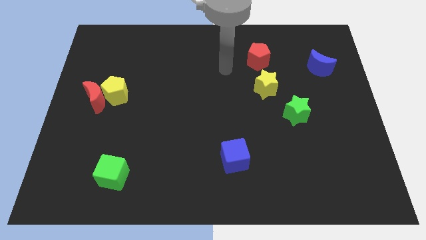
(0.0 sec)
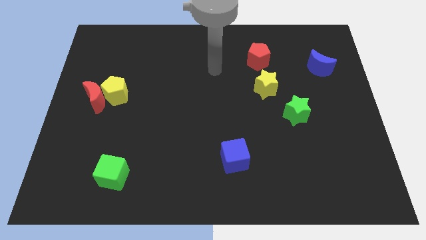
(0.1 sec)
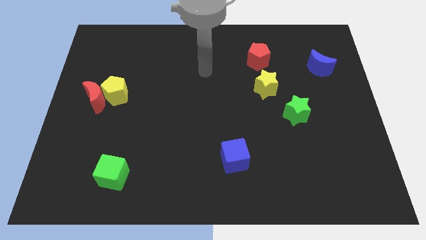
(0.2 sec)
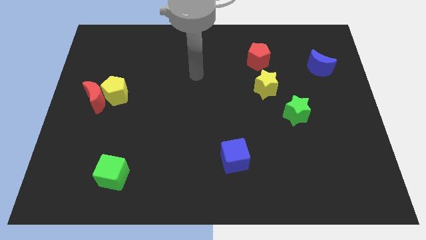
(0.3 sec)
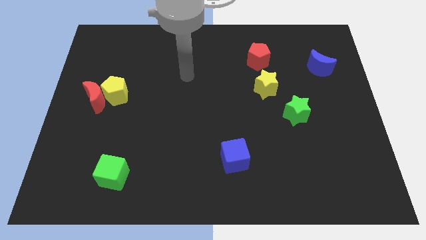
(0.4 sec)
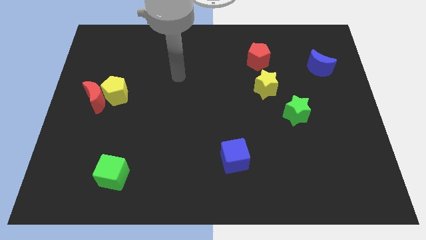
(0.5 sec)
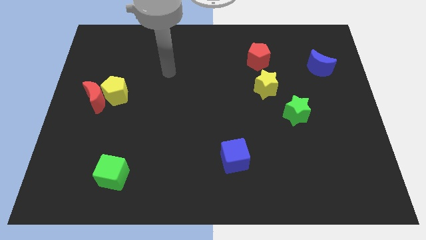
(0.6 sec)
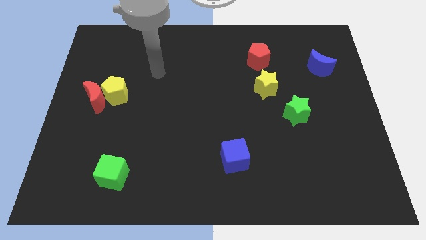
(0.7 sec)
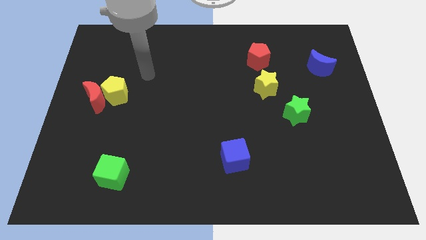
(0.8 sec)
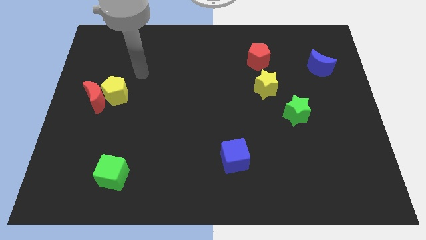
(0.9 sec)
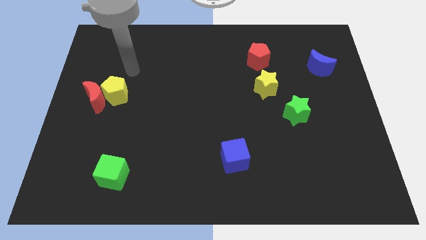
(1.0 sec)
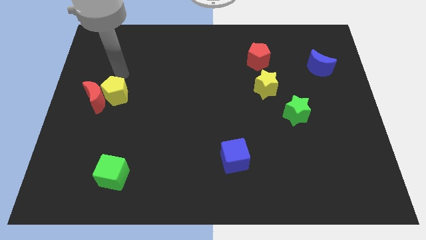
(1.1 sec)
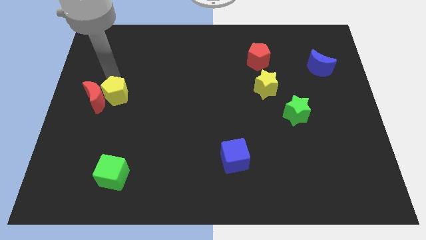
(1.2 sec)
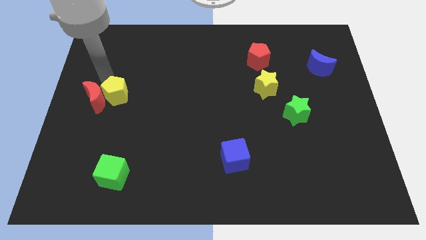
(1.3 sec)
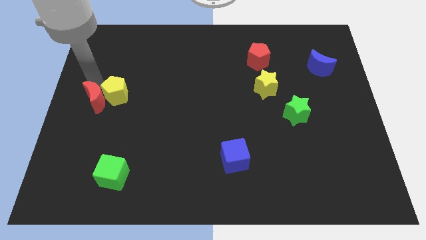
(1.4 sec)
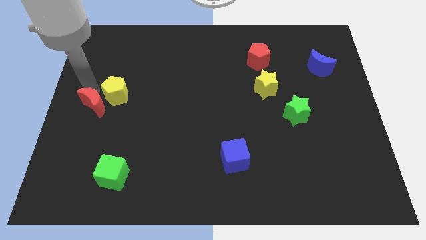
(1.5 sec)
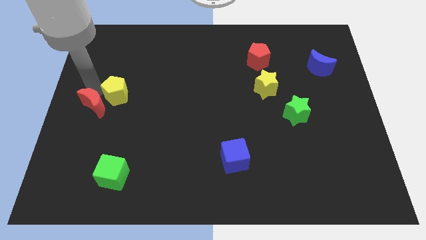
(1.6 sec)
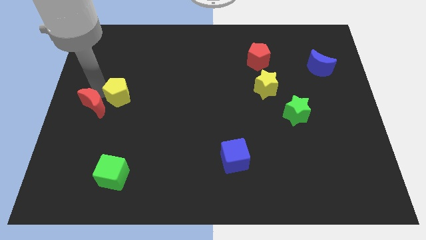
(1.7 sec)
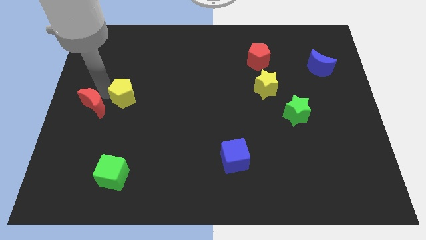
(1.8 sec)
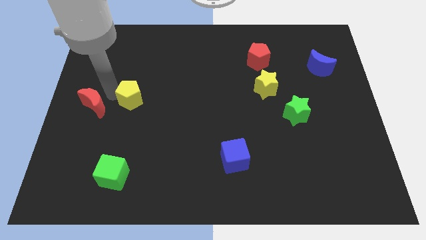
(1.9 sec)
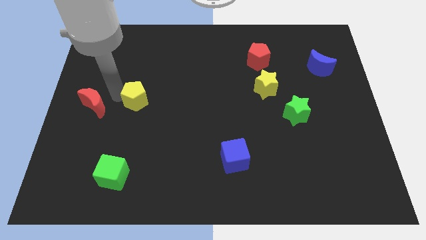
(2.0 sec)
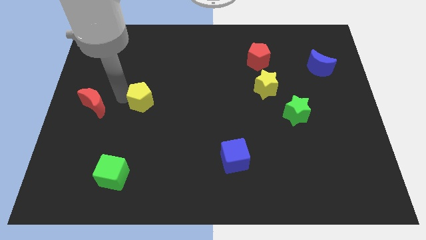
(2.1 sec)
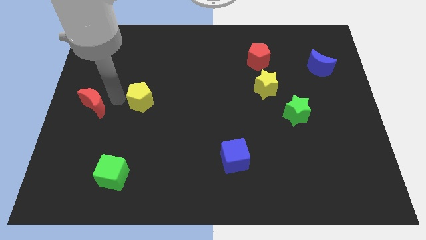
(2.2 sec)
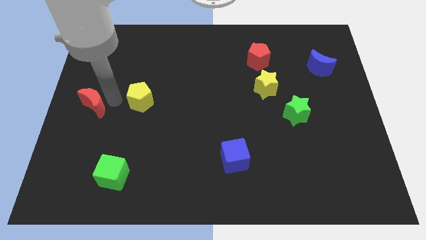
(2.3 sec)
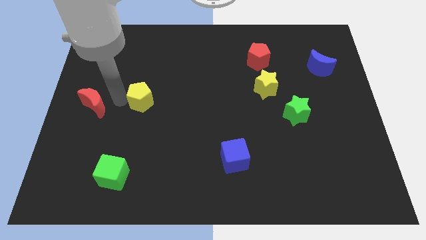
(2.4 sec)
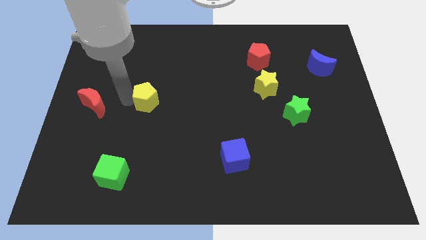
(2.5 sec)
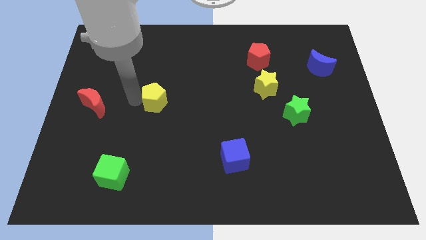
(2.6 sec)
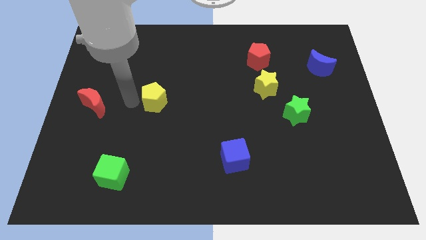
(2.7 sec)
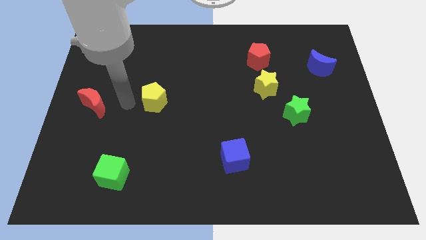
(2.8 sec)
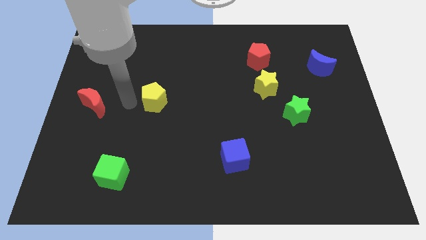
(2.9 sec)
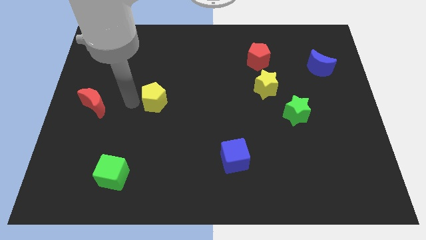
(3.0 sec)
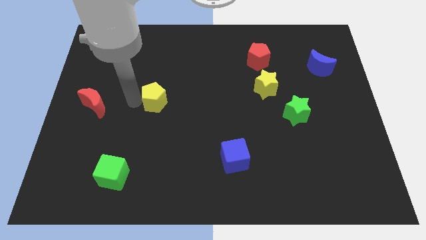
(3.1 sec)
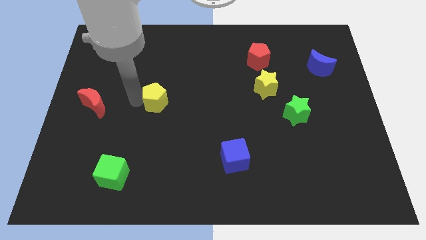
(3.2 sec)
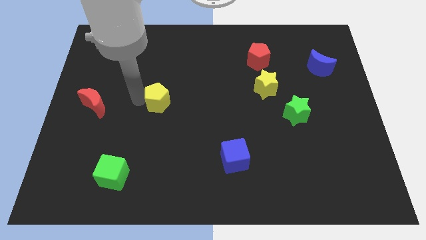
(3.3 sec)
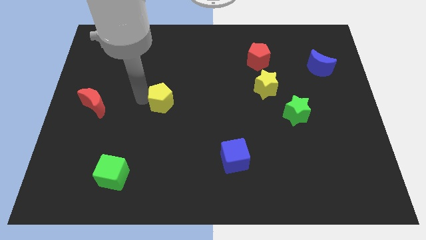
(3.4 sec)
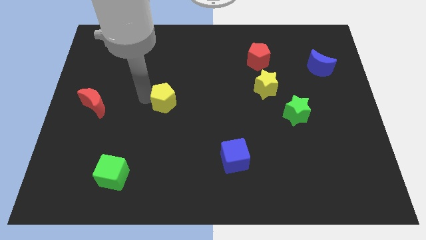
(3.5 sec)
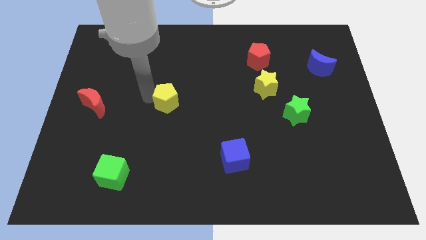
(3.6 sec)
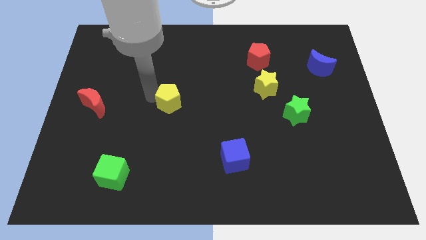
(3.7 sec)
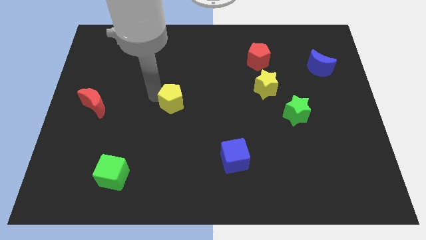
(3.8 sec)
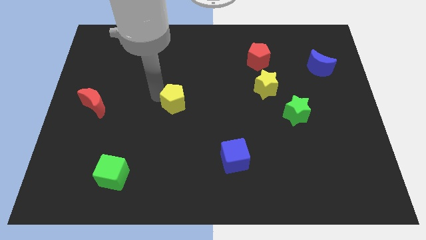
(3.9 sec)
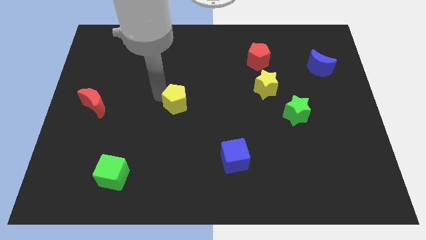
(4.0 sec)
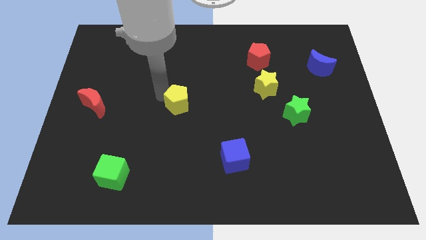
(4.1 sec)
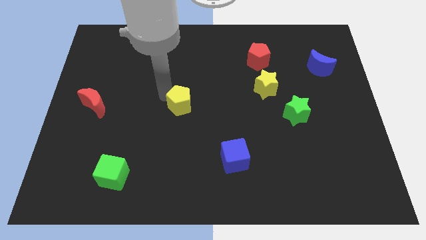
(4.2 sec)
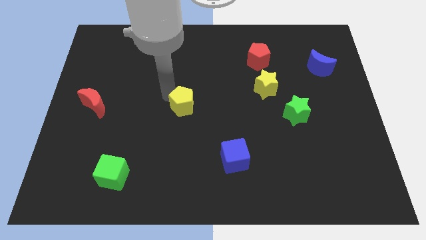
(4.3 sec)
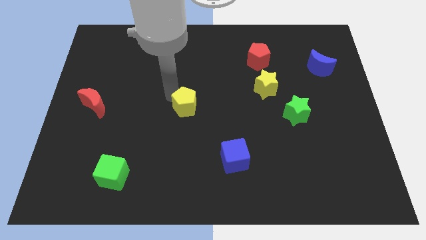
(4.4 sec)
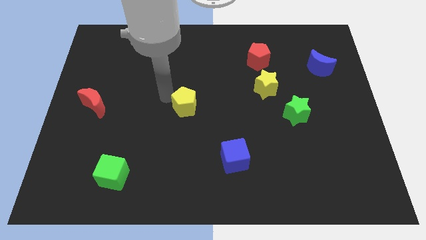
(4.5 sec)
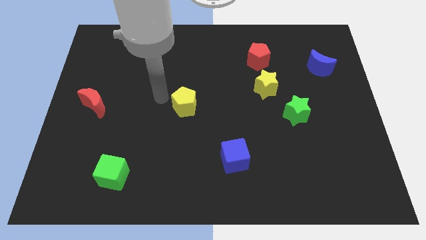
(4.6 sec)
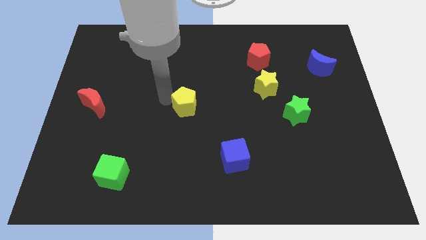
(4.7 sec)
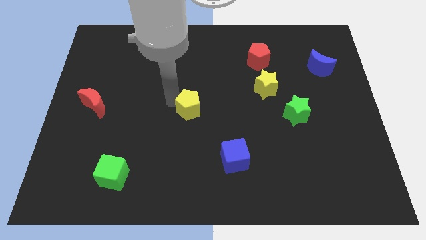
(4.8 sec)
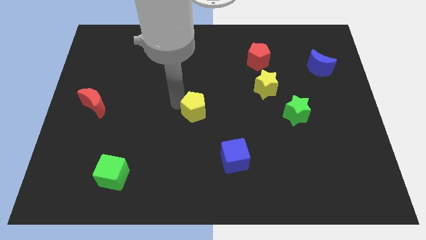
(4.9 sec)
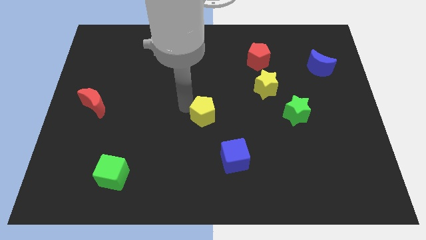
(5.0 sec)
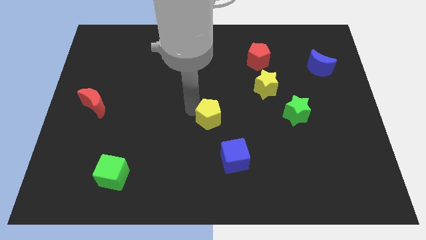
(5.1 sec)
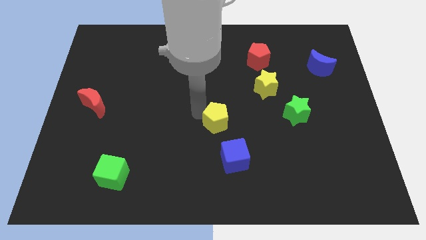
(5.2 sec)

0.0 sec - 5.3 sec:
move the yellow pentagon above the blue cube

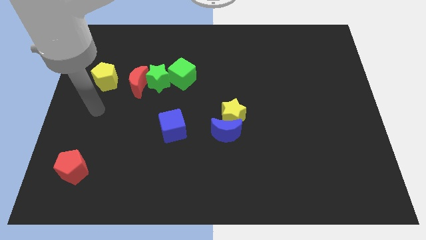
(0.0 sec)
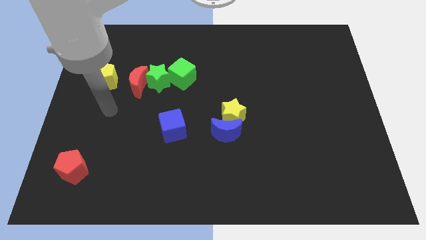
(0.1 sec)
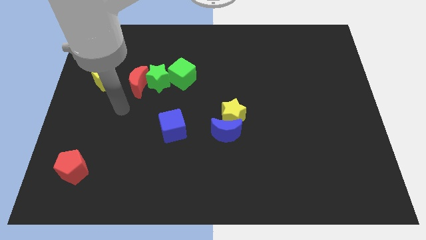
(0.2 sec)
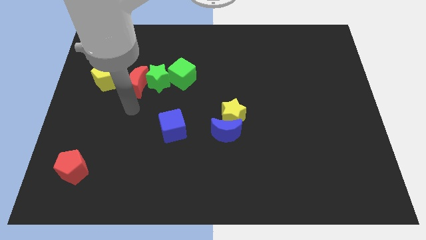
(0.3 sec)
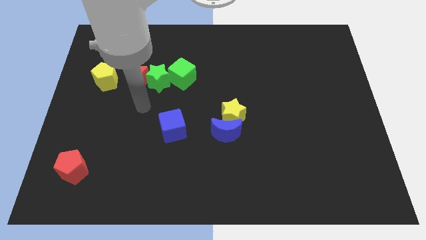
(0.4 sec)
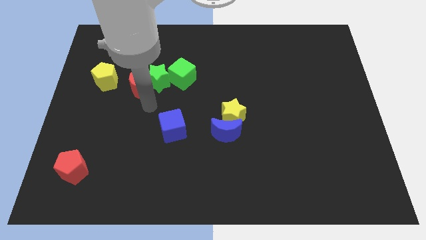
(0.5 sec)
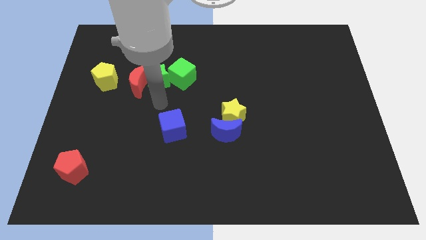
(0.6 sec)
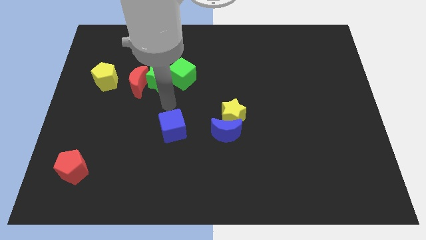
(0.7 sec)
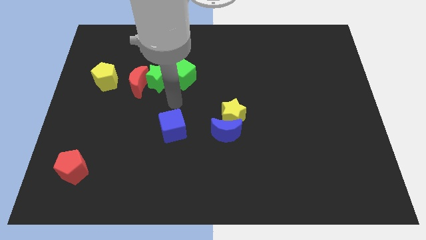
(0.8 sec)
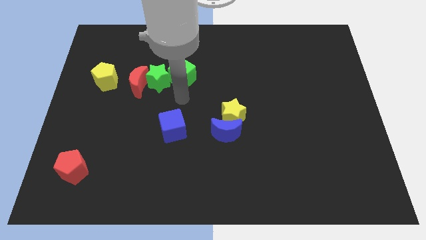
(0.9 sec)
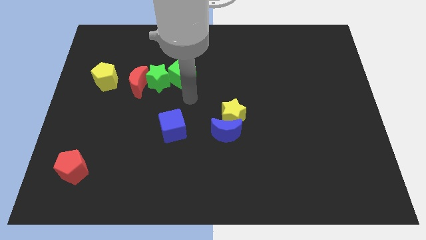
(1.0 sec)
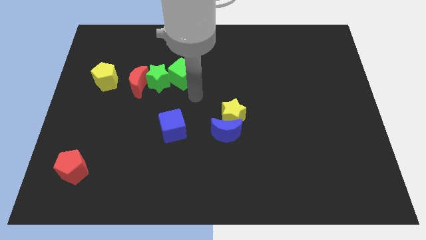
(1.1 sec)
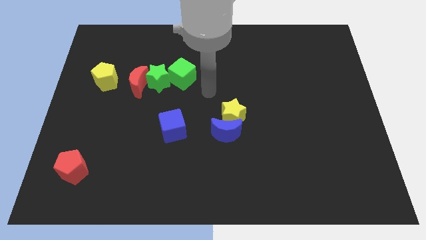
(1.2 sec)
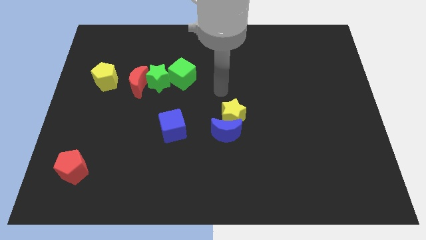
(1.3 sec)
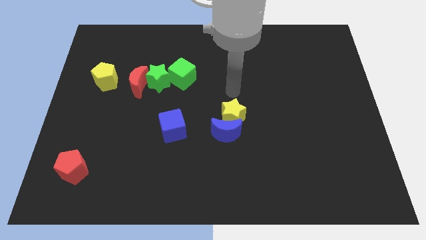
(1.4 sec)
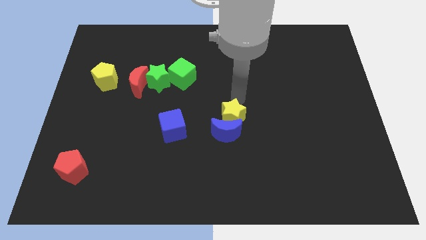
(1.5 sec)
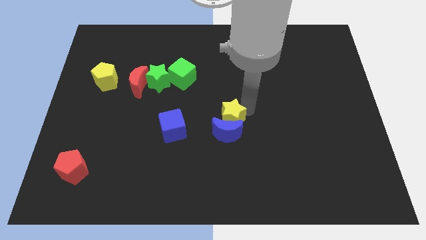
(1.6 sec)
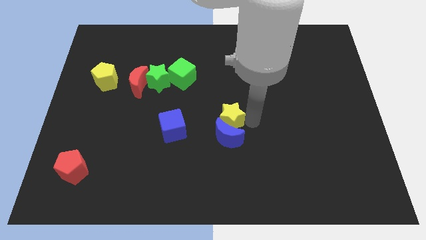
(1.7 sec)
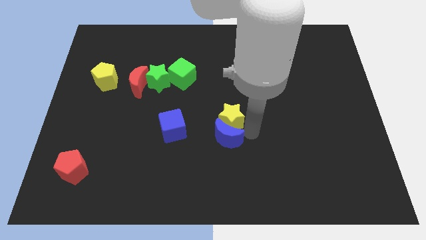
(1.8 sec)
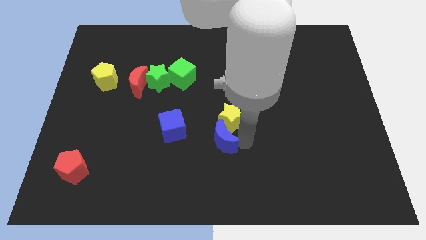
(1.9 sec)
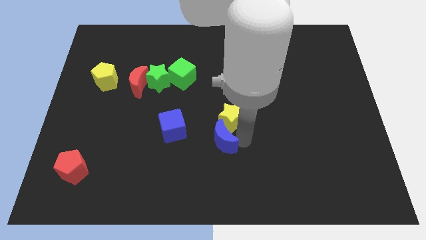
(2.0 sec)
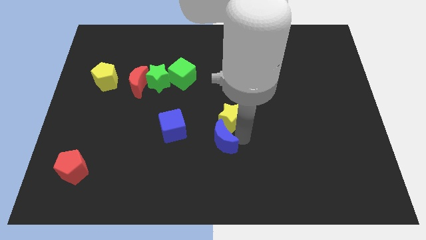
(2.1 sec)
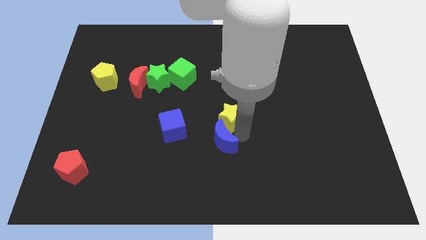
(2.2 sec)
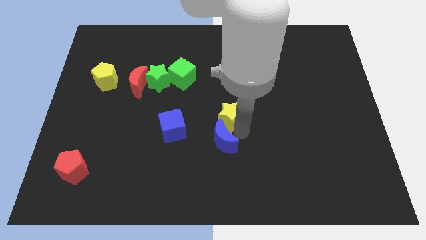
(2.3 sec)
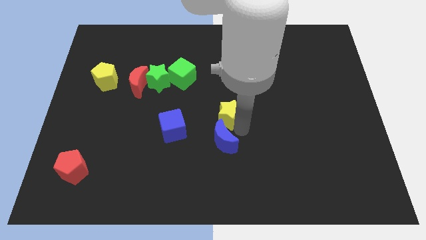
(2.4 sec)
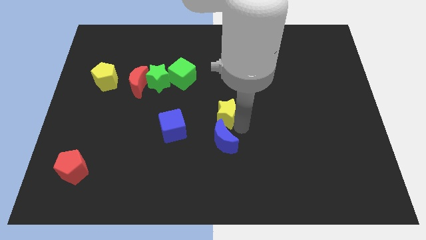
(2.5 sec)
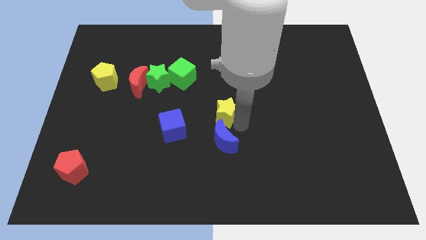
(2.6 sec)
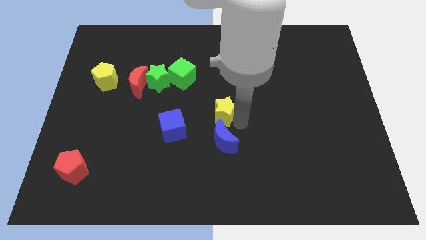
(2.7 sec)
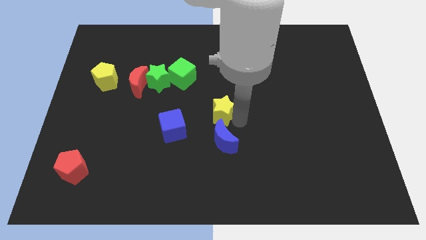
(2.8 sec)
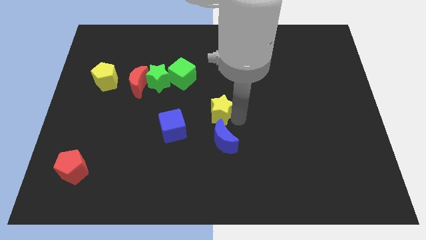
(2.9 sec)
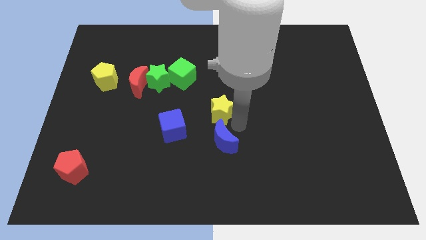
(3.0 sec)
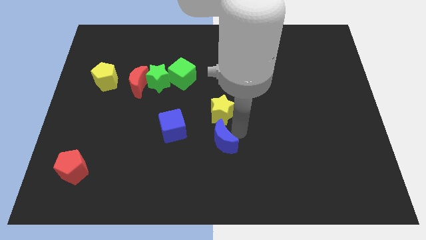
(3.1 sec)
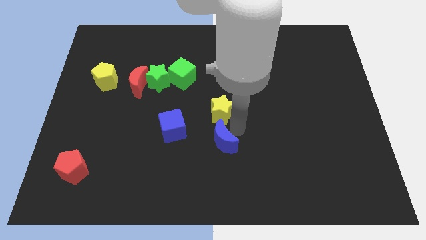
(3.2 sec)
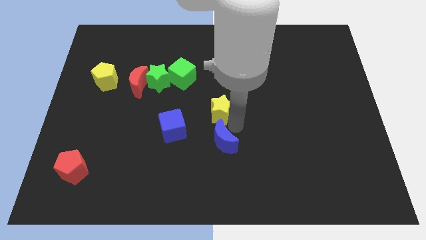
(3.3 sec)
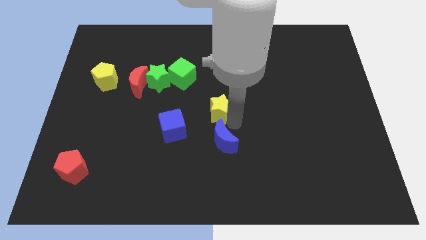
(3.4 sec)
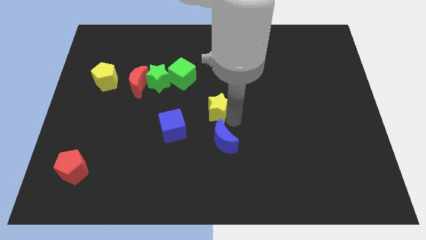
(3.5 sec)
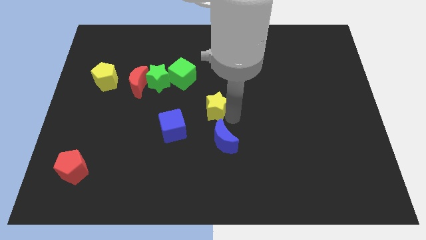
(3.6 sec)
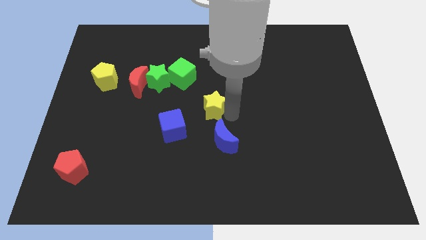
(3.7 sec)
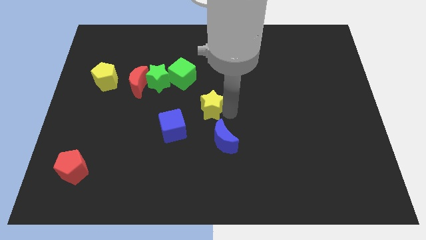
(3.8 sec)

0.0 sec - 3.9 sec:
put the yellow star diagonally down and to the right of the green cube
